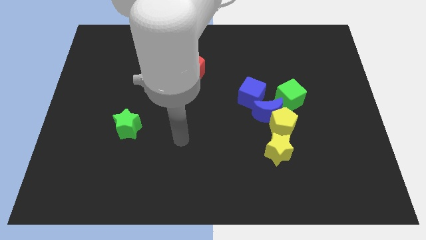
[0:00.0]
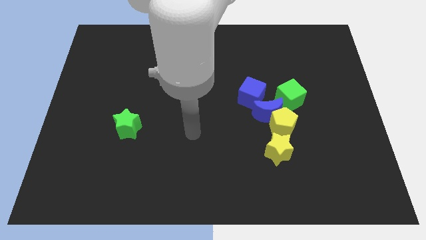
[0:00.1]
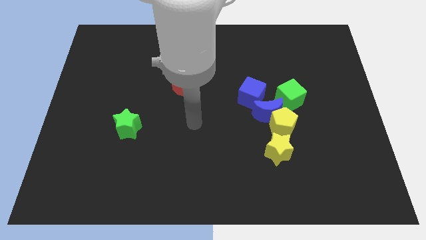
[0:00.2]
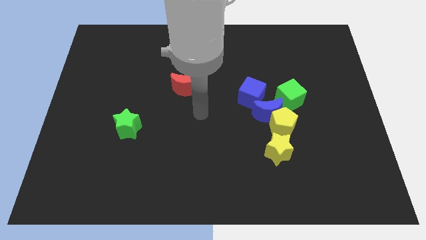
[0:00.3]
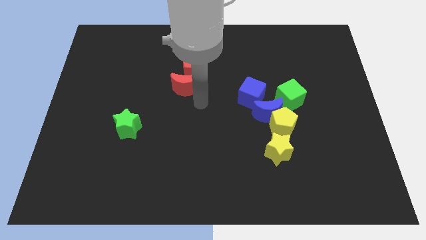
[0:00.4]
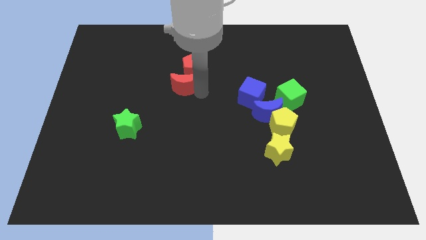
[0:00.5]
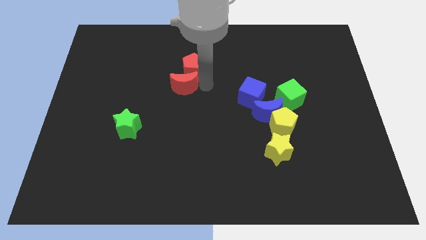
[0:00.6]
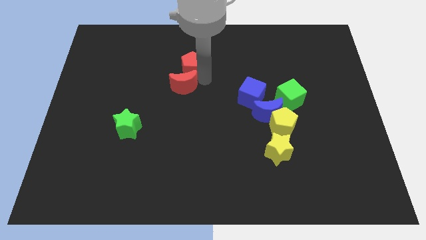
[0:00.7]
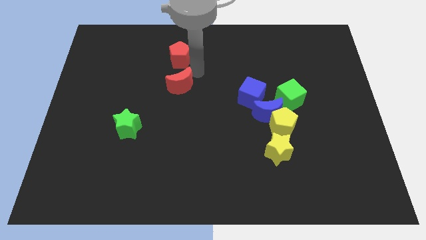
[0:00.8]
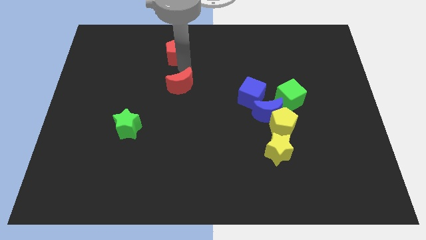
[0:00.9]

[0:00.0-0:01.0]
pull the red moon apart from the red pentagon

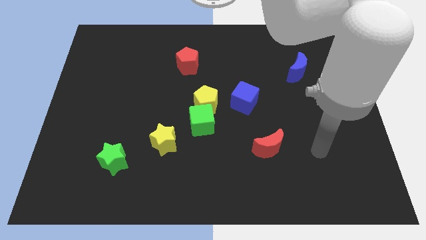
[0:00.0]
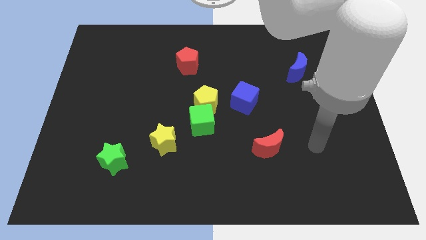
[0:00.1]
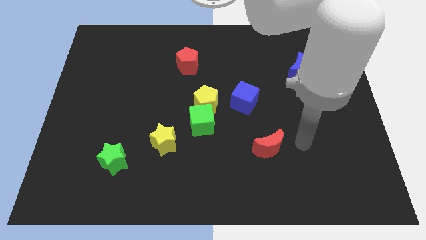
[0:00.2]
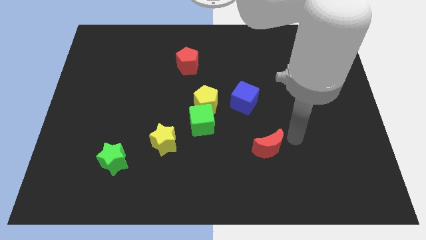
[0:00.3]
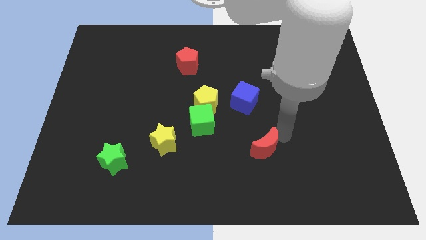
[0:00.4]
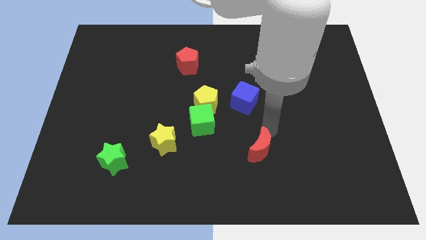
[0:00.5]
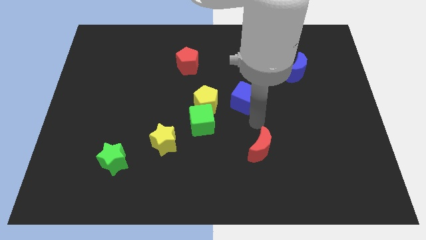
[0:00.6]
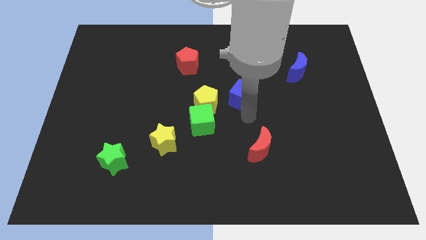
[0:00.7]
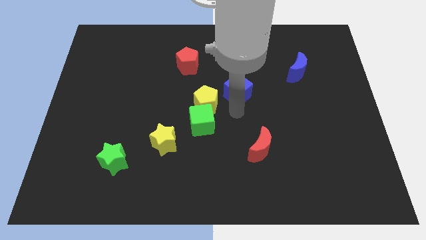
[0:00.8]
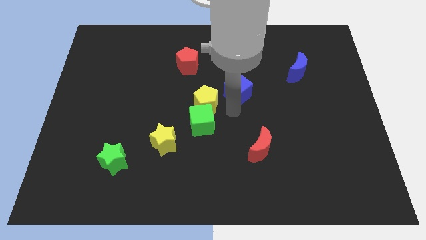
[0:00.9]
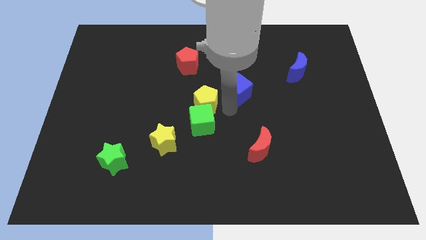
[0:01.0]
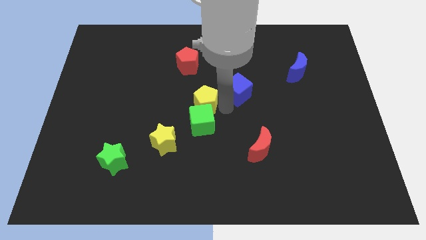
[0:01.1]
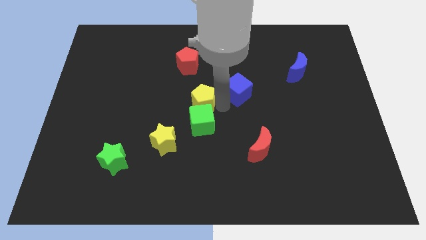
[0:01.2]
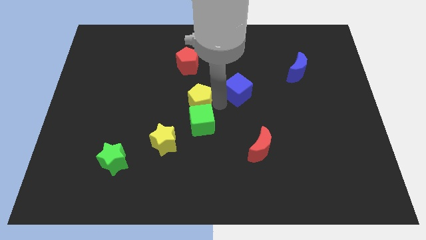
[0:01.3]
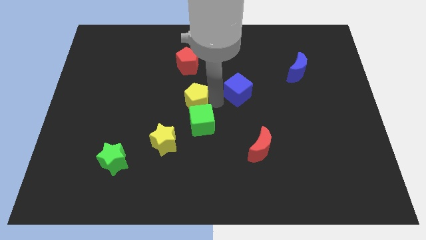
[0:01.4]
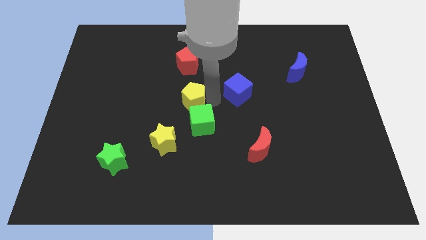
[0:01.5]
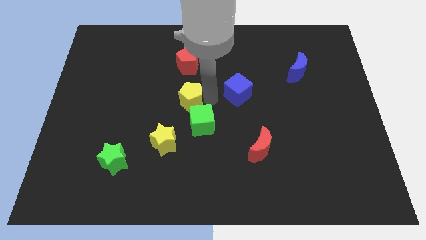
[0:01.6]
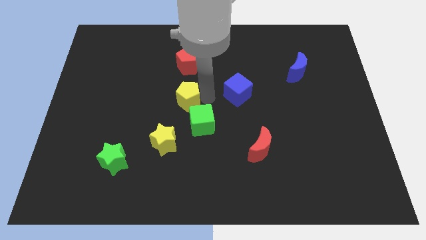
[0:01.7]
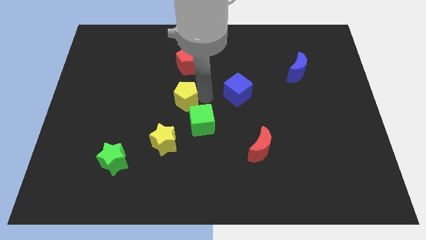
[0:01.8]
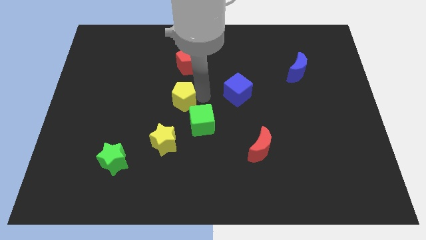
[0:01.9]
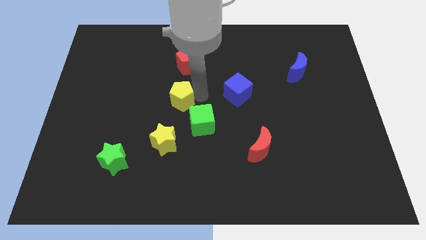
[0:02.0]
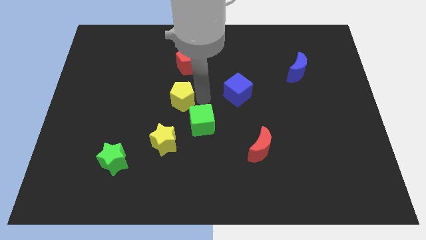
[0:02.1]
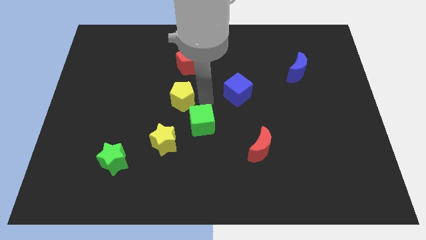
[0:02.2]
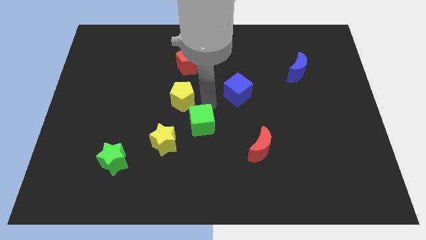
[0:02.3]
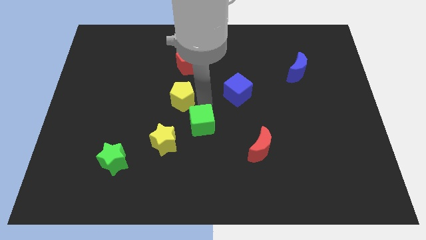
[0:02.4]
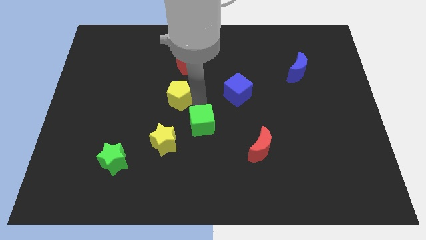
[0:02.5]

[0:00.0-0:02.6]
pull the yellow pentagon apart from the green cube and blue cube

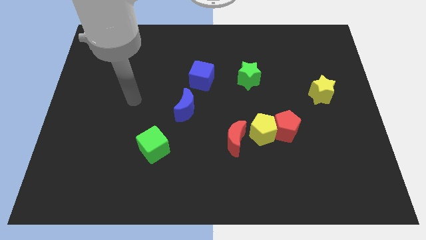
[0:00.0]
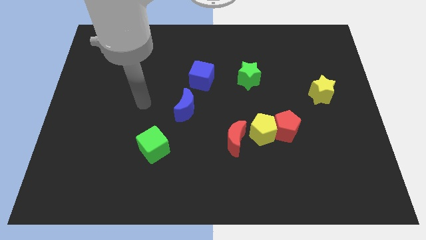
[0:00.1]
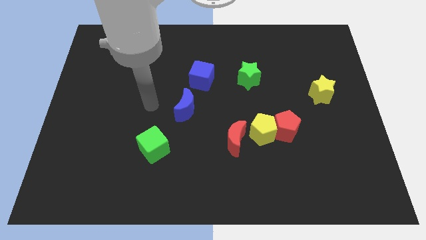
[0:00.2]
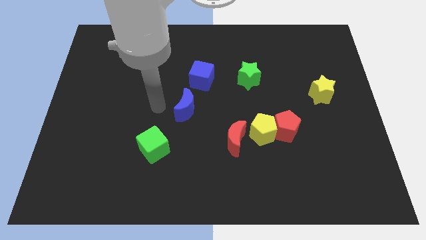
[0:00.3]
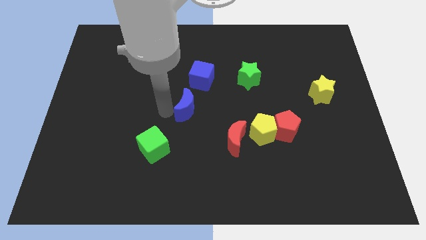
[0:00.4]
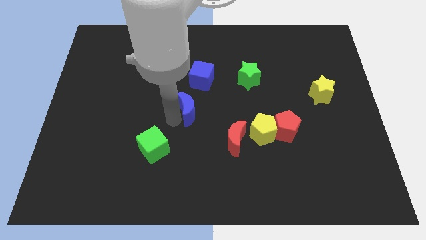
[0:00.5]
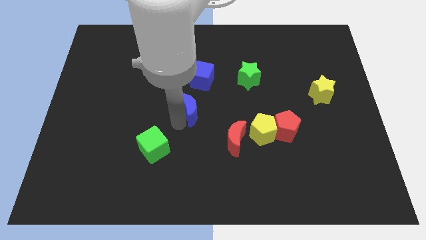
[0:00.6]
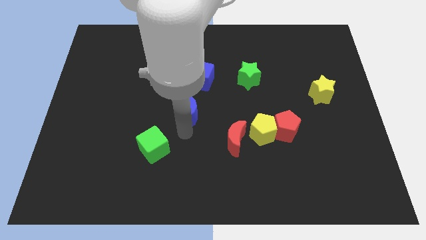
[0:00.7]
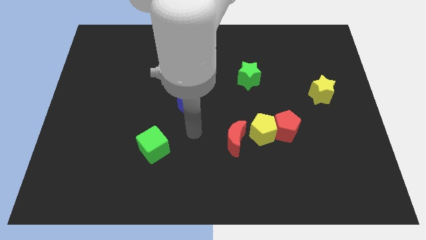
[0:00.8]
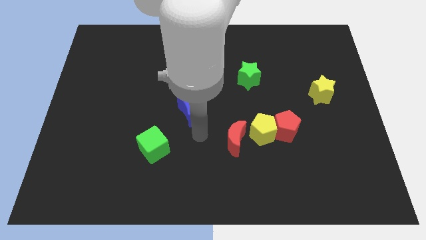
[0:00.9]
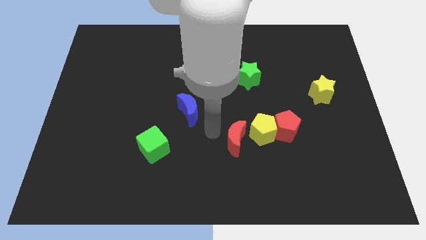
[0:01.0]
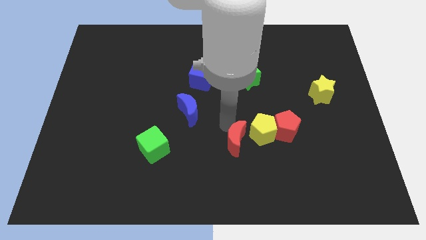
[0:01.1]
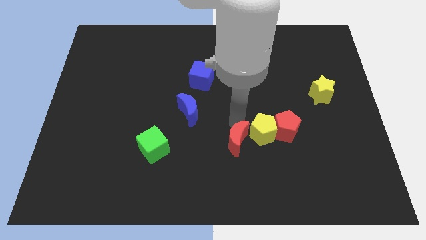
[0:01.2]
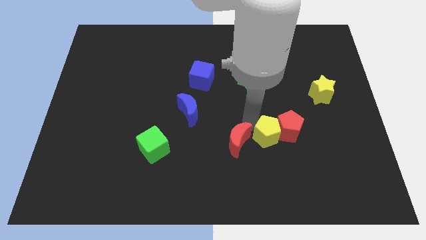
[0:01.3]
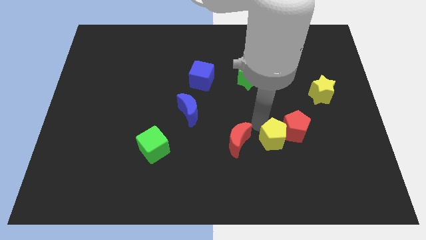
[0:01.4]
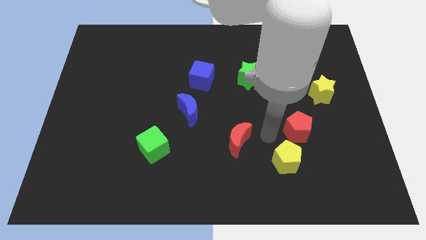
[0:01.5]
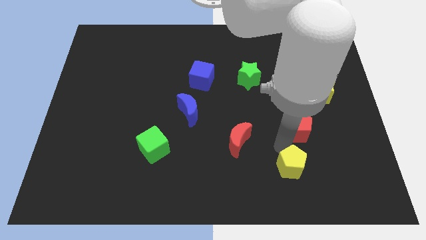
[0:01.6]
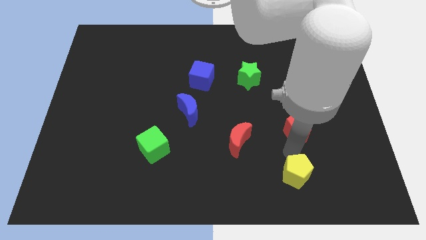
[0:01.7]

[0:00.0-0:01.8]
pull the red pentagon apart from the yellow pentagon

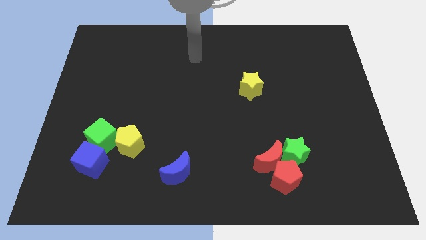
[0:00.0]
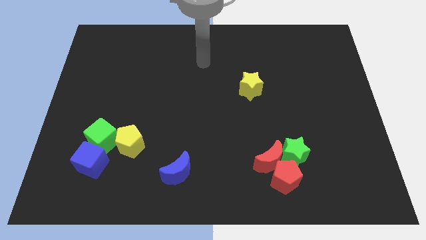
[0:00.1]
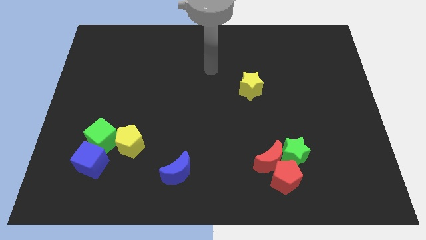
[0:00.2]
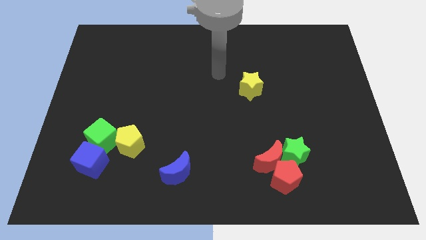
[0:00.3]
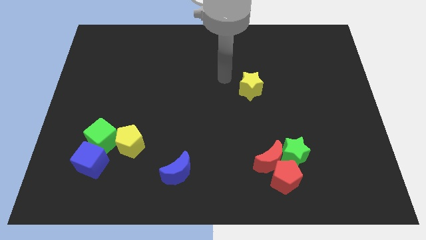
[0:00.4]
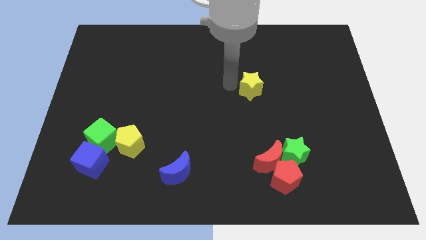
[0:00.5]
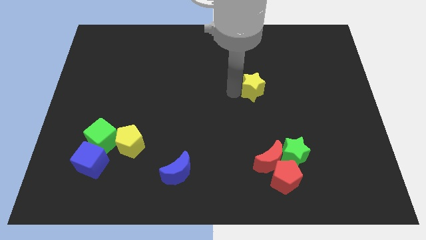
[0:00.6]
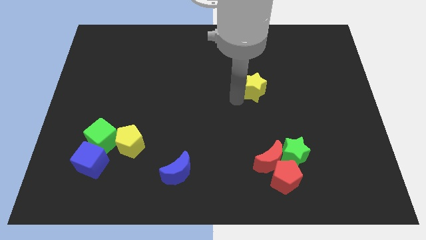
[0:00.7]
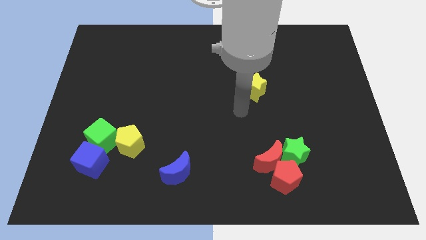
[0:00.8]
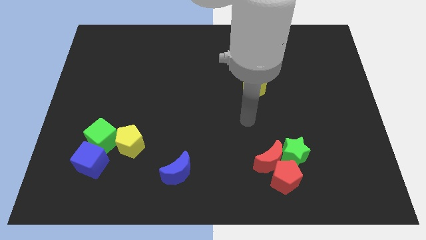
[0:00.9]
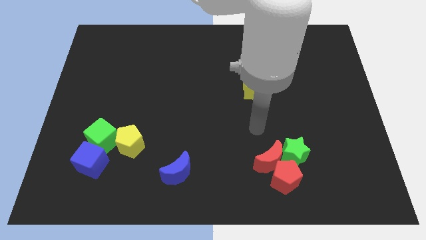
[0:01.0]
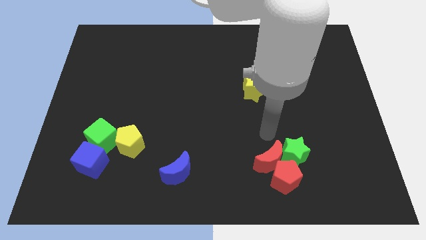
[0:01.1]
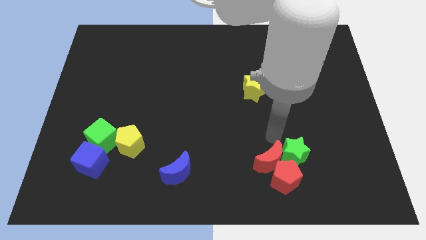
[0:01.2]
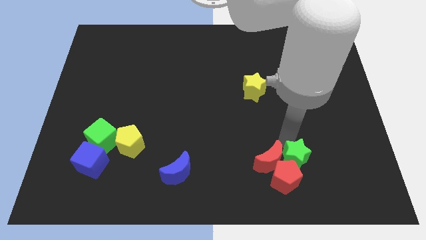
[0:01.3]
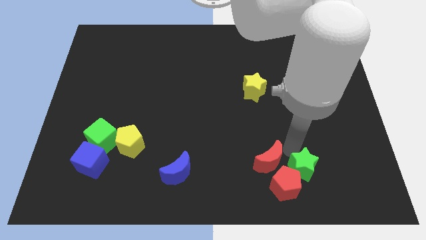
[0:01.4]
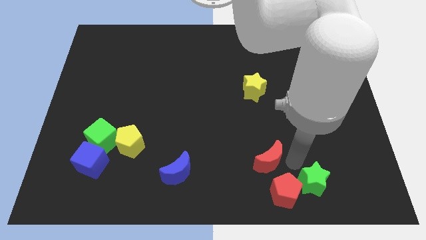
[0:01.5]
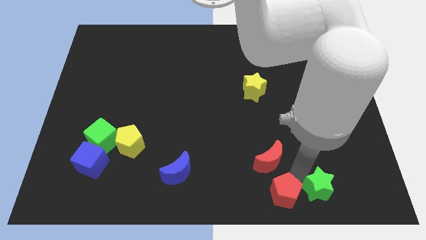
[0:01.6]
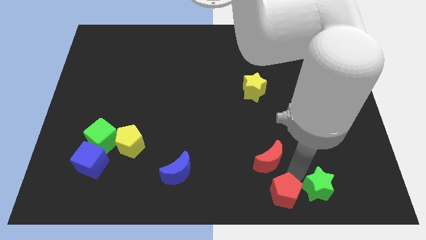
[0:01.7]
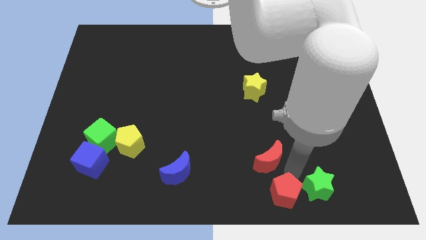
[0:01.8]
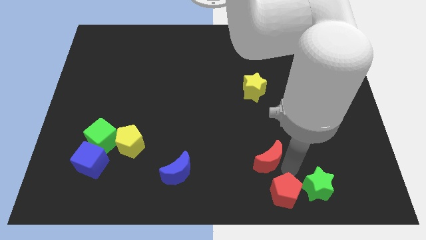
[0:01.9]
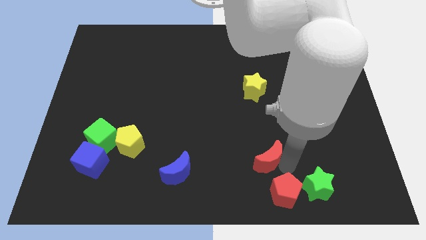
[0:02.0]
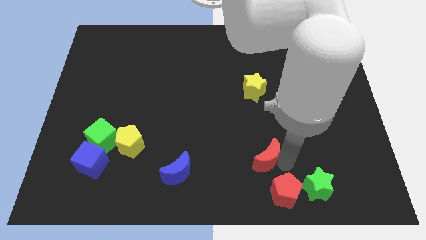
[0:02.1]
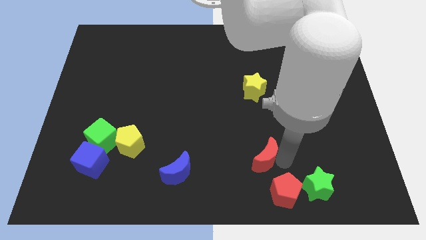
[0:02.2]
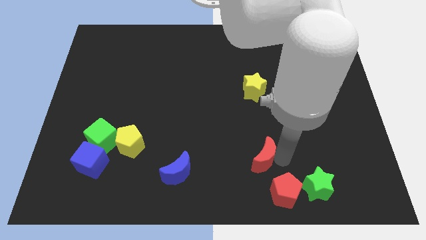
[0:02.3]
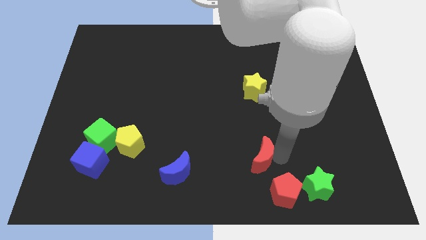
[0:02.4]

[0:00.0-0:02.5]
separate the red moon from the red pentagon and green star

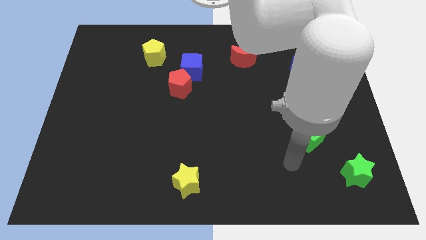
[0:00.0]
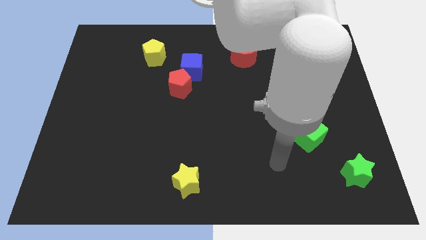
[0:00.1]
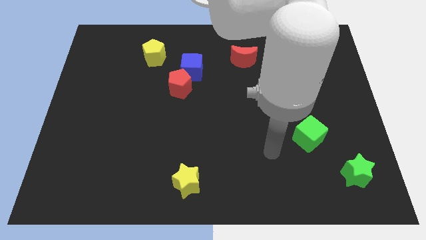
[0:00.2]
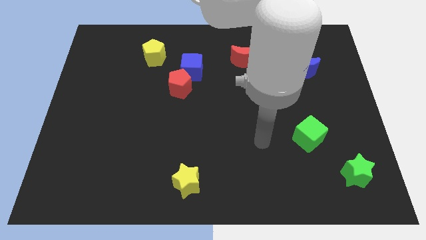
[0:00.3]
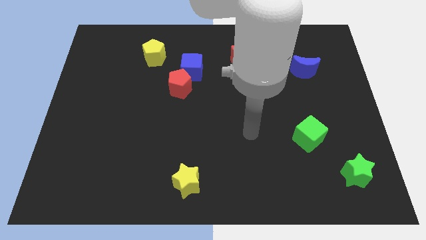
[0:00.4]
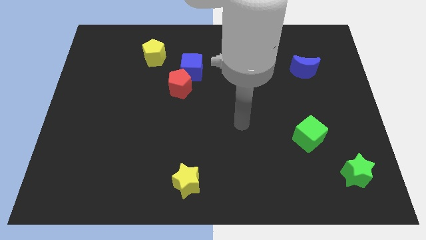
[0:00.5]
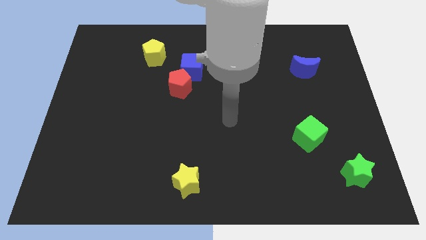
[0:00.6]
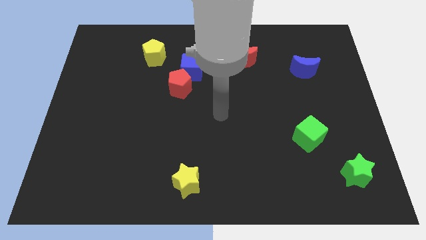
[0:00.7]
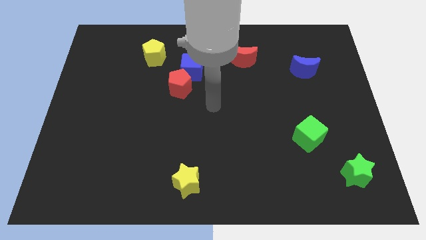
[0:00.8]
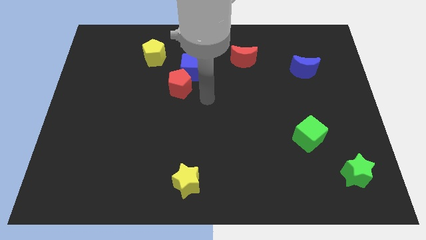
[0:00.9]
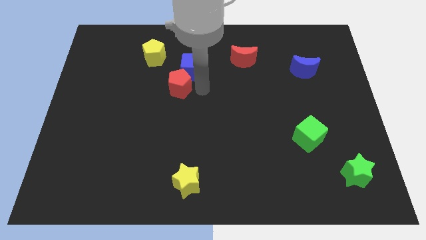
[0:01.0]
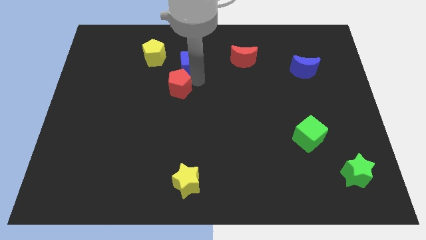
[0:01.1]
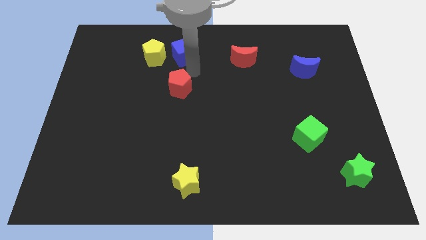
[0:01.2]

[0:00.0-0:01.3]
separate the red pentagon from the blue cube

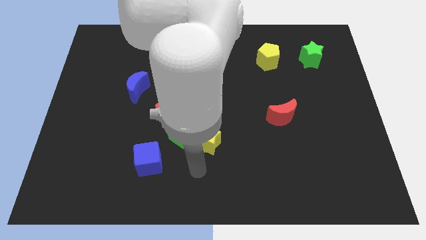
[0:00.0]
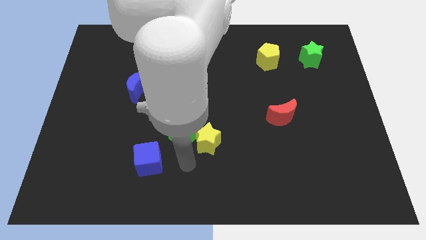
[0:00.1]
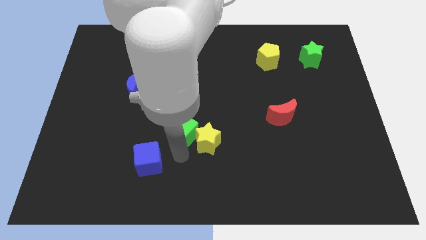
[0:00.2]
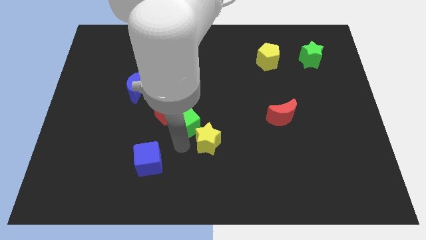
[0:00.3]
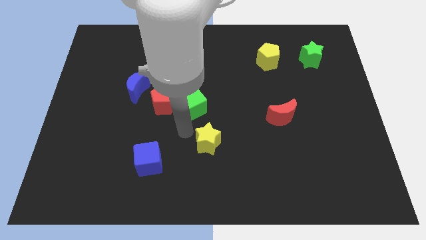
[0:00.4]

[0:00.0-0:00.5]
separate the yellow star from the green cube
